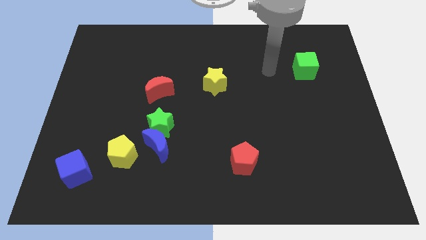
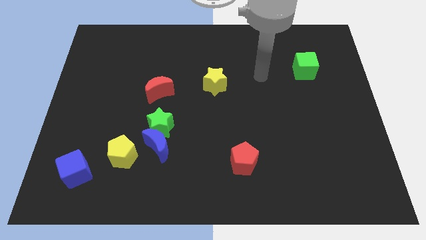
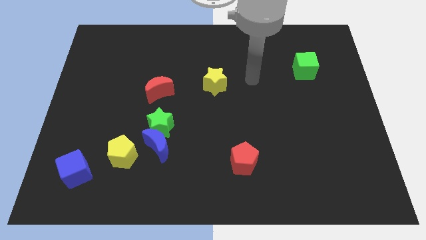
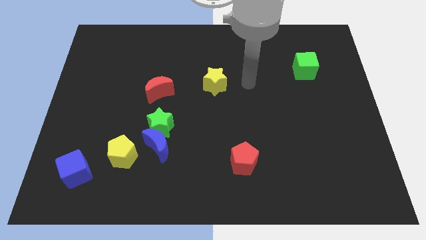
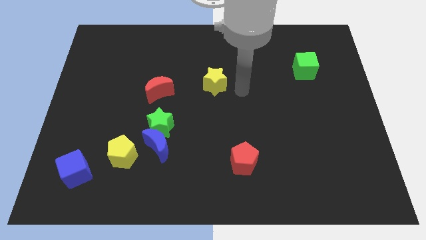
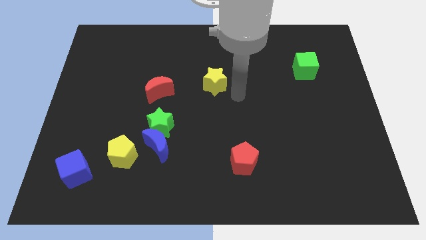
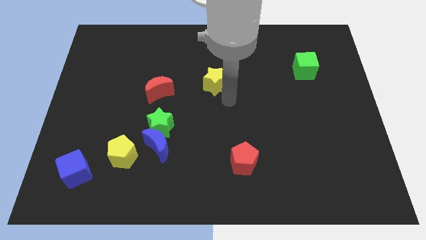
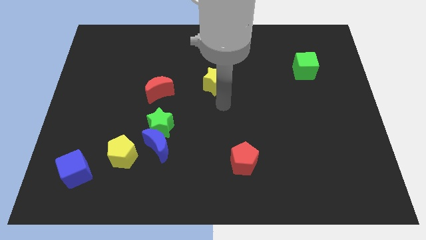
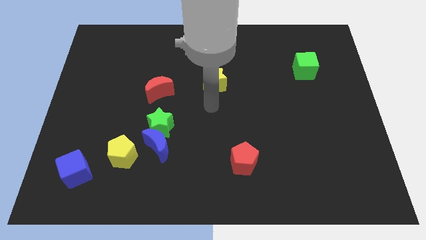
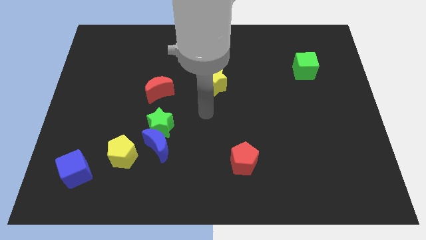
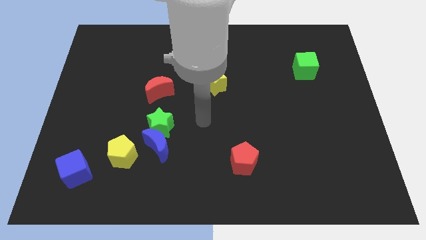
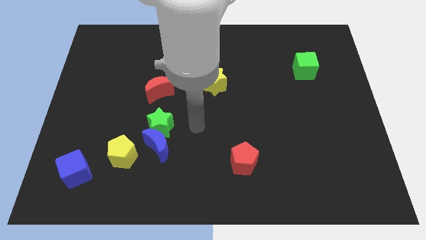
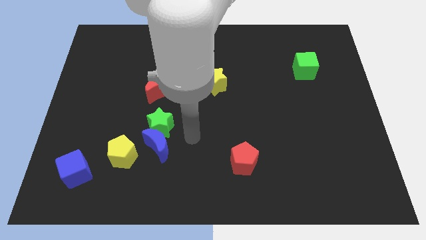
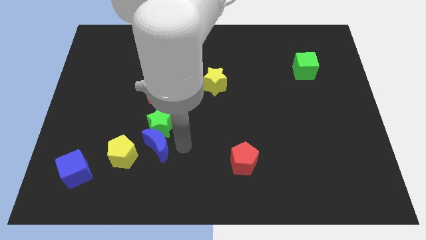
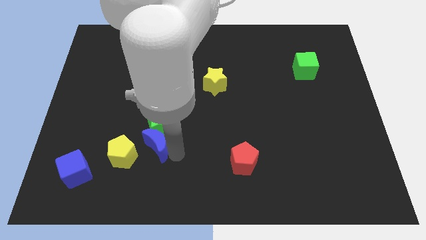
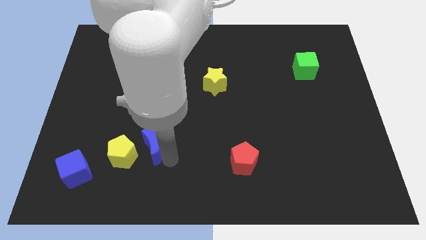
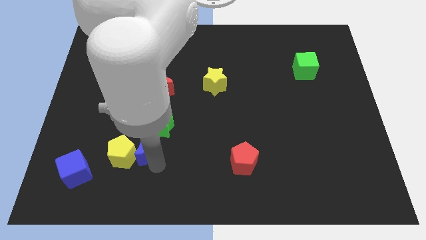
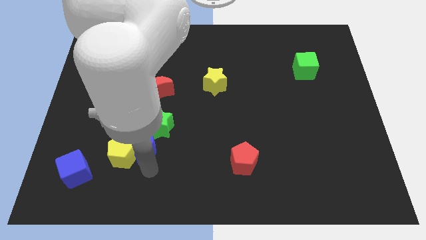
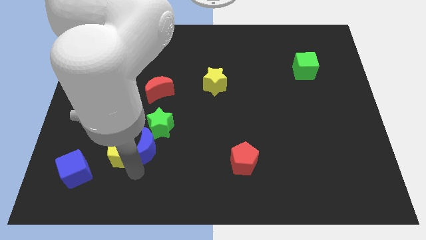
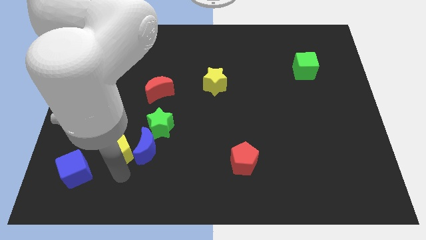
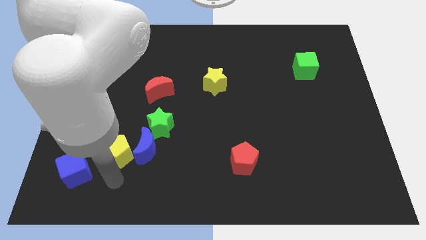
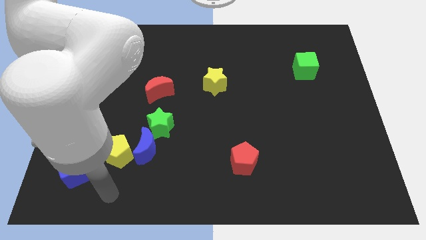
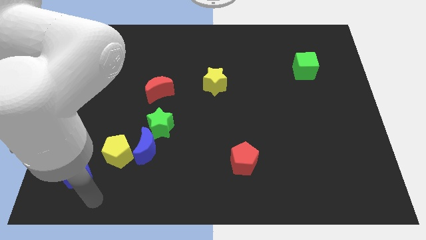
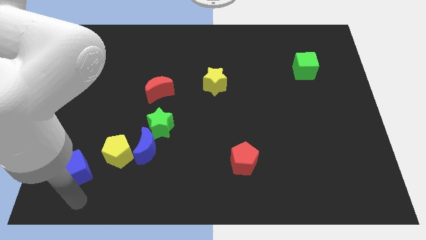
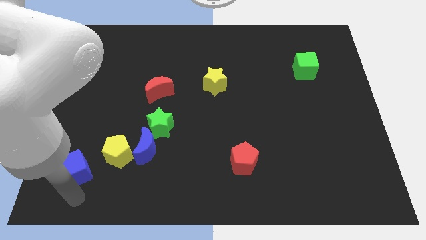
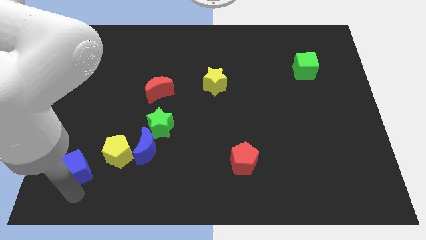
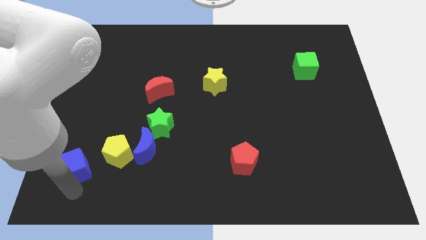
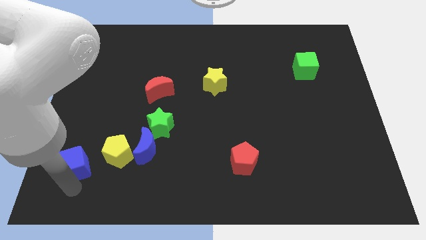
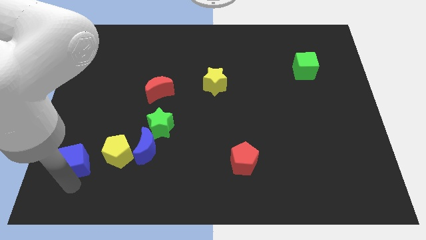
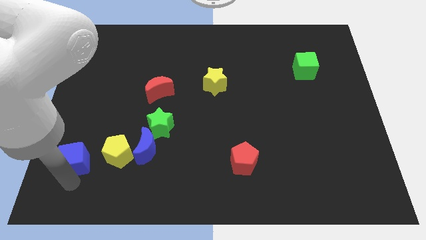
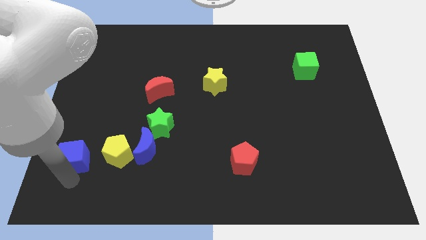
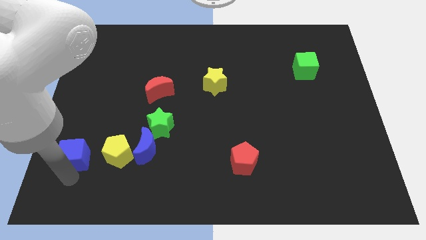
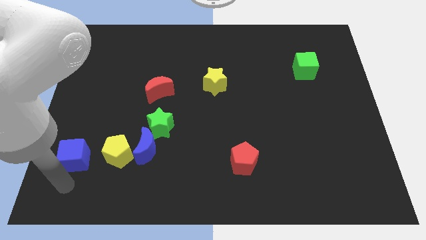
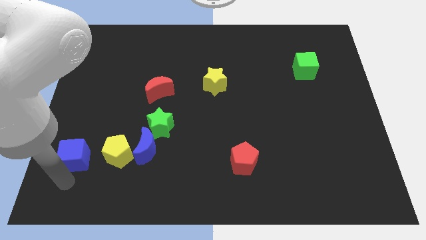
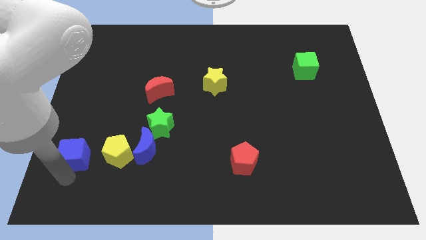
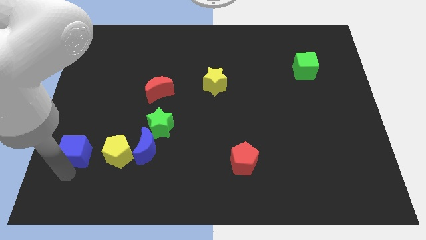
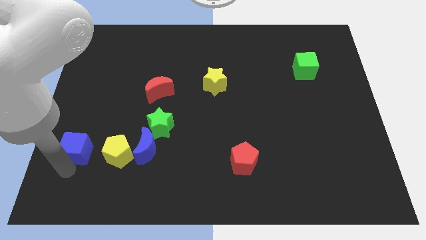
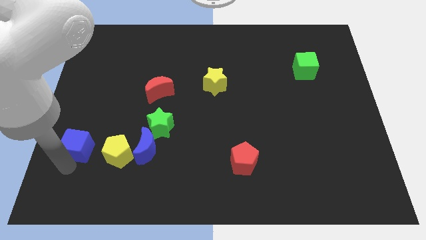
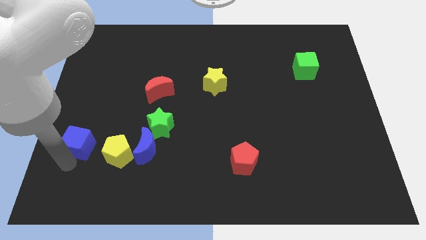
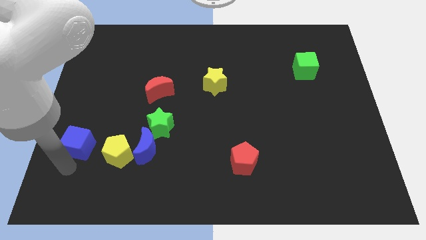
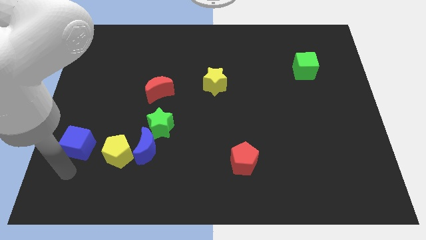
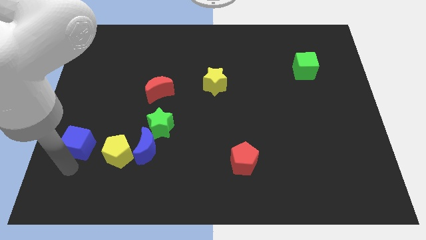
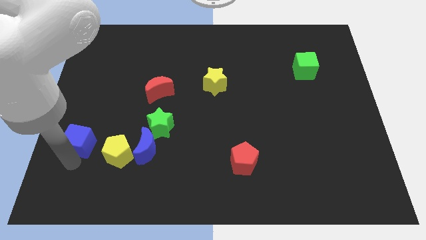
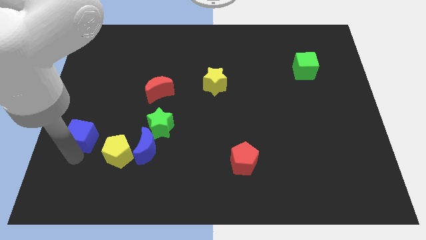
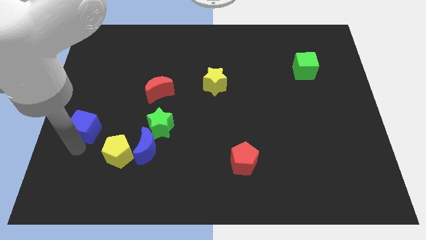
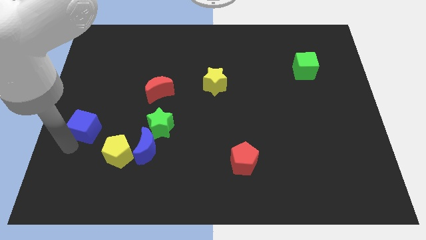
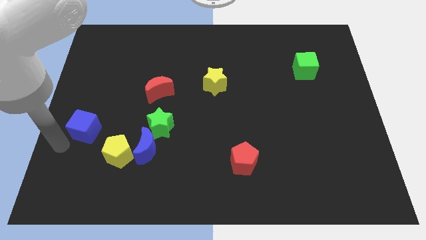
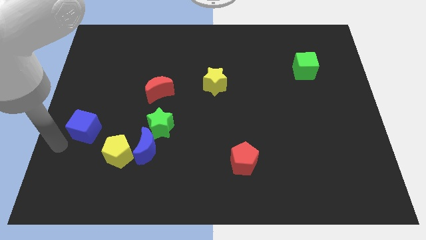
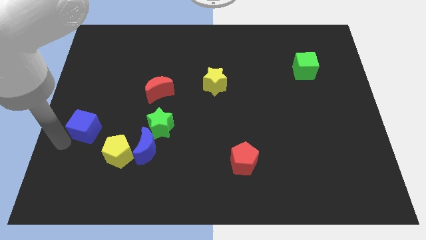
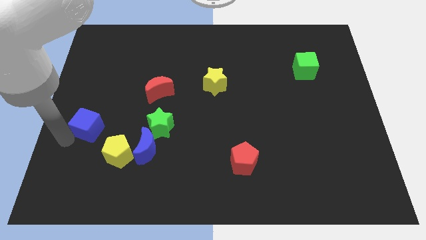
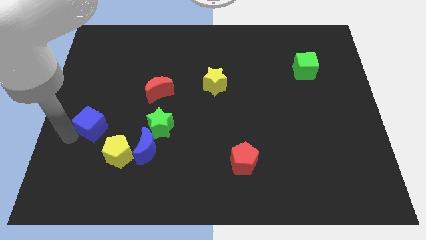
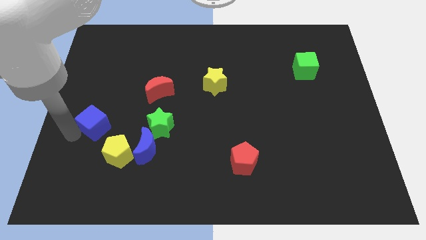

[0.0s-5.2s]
slide the blue cube a little upwards and then to the right

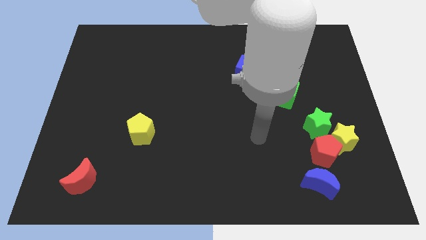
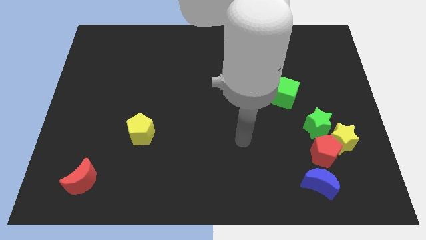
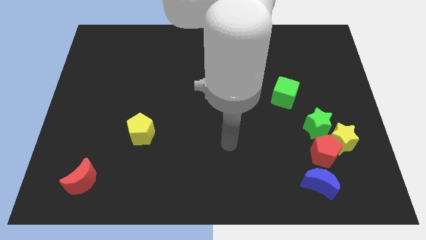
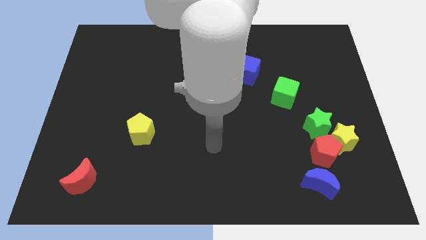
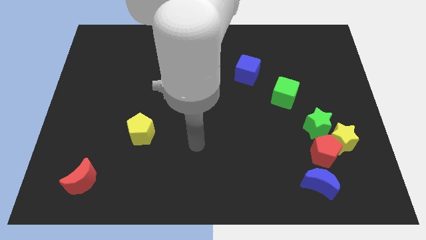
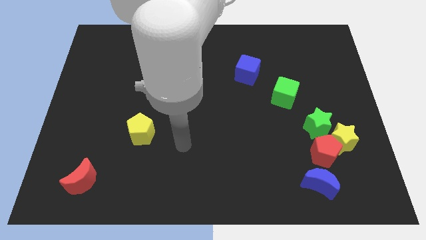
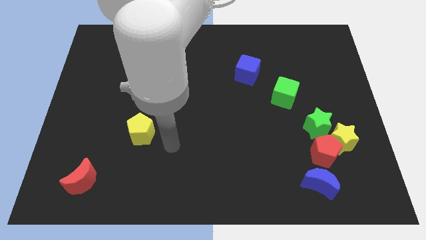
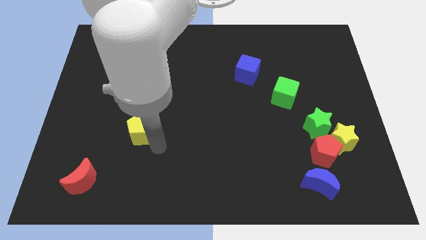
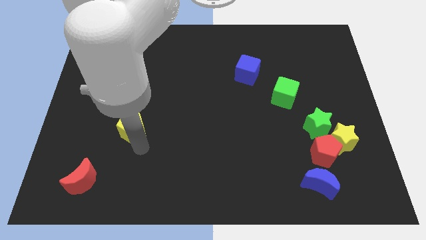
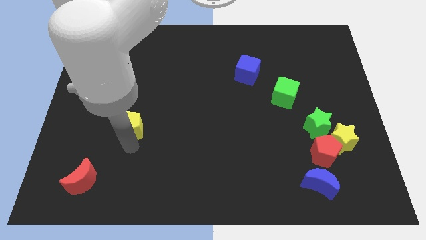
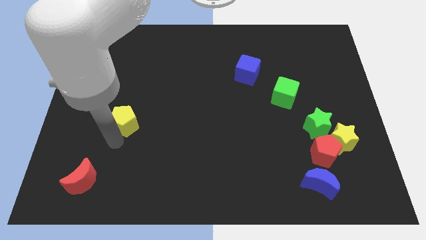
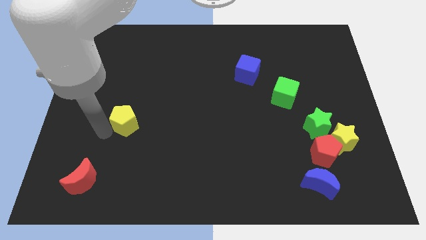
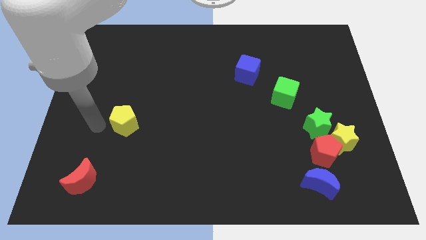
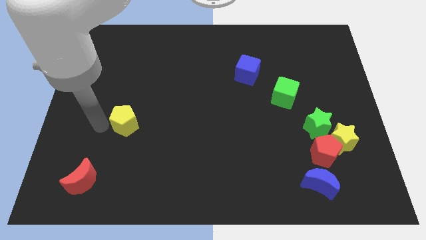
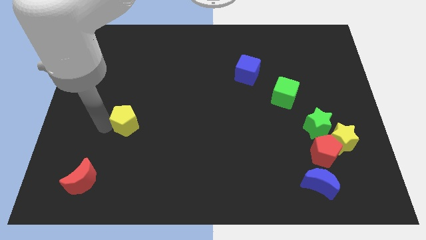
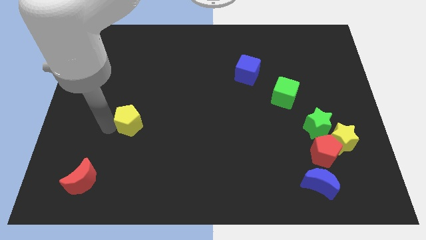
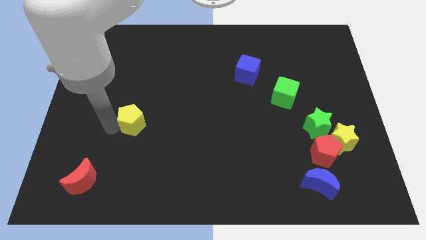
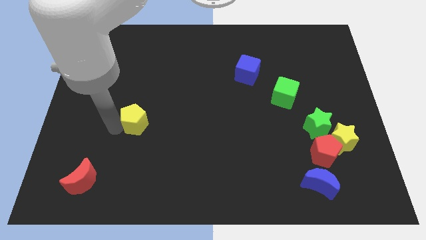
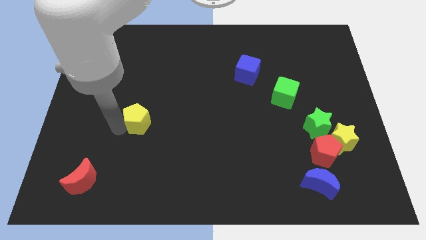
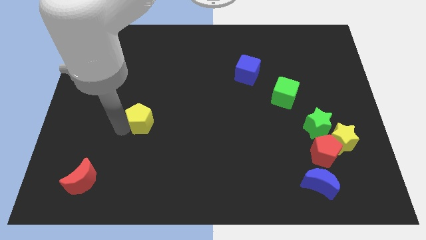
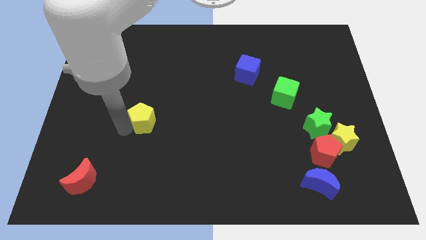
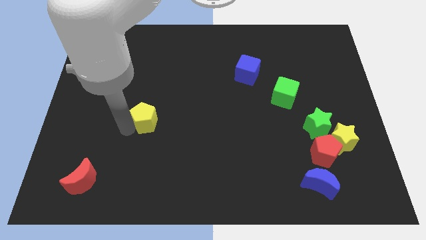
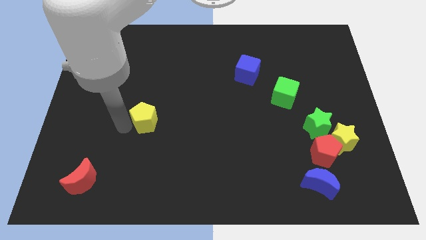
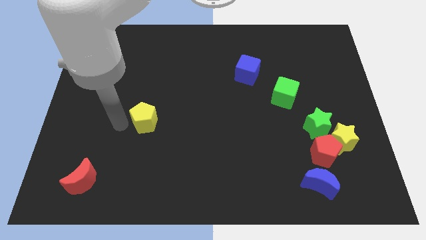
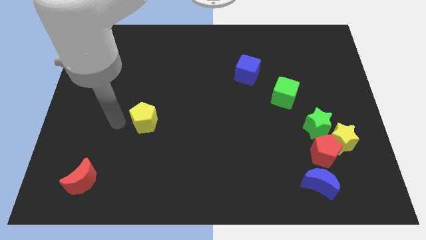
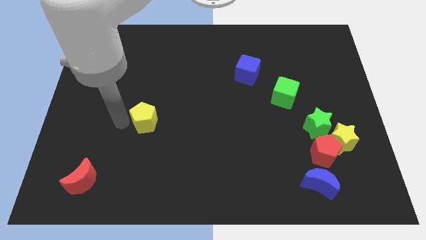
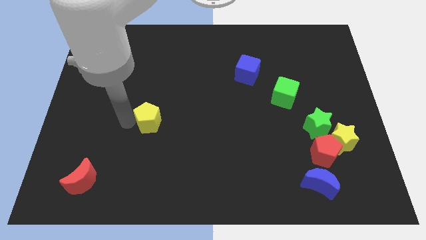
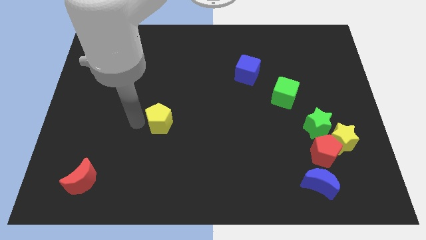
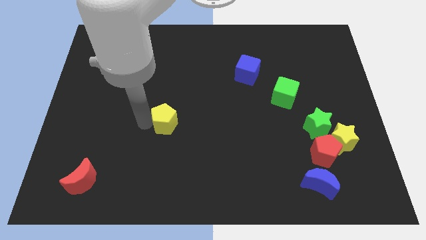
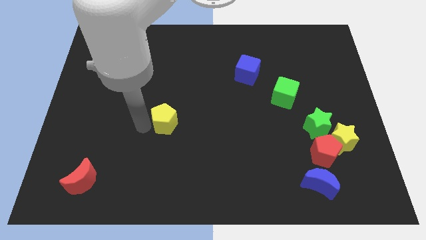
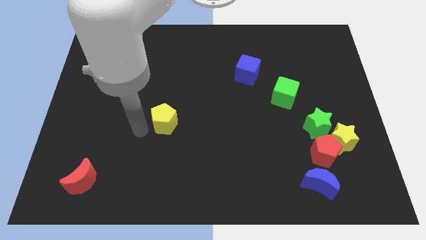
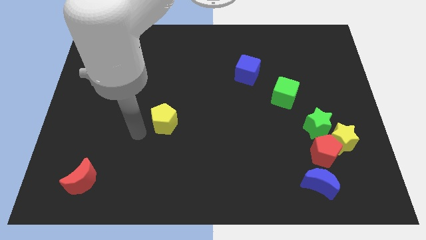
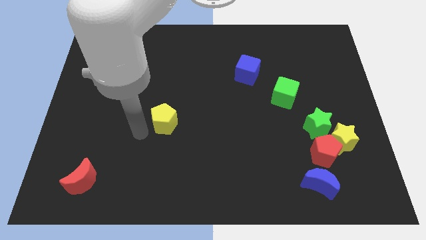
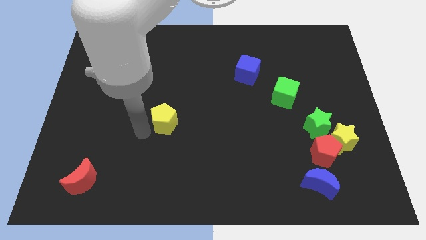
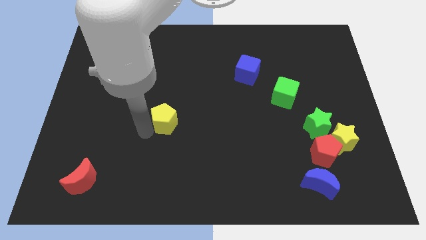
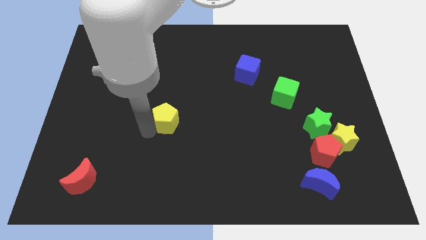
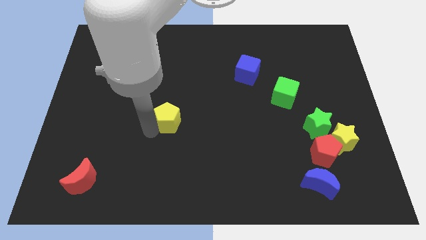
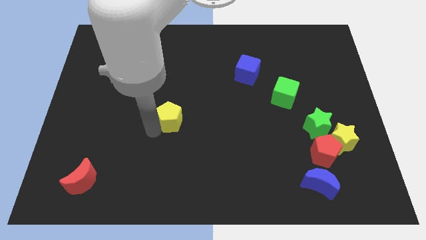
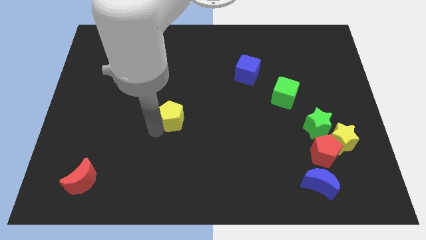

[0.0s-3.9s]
slightly move the yellow pentagon up and to the right
